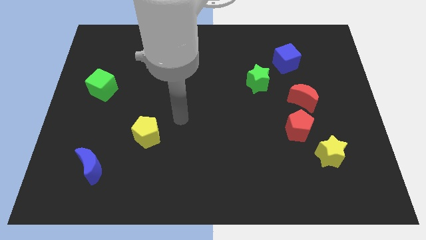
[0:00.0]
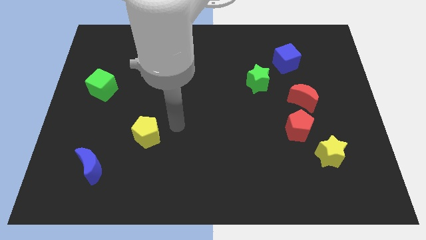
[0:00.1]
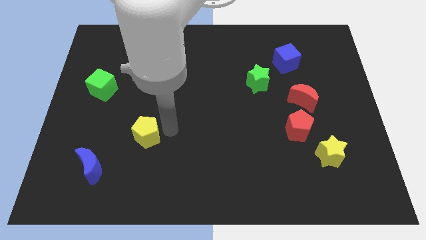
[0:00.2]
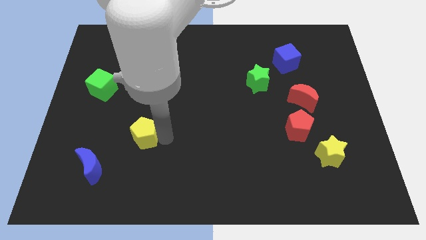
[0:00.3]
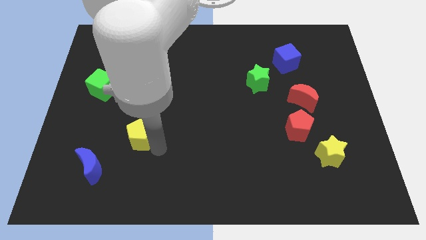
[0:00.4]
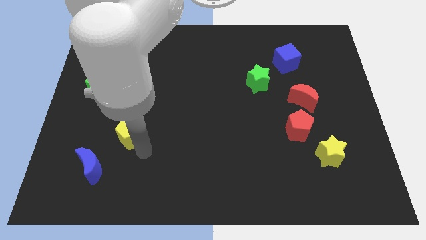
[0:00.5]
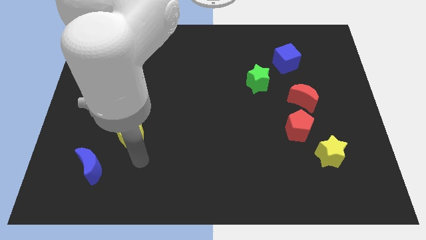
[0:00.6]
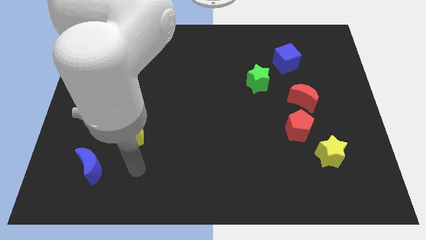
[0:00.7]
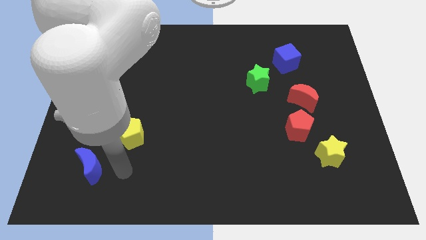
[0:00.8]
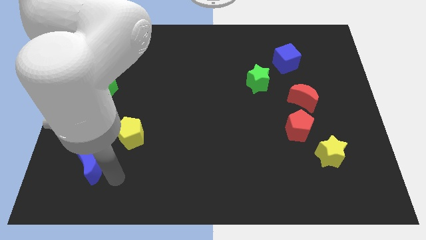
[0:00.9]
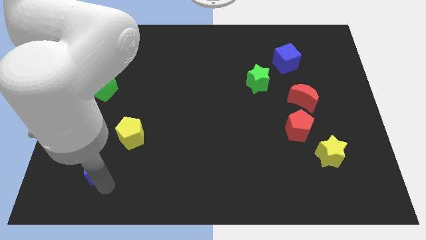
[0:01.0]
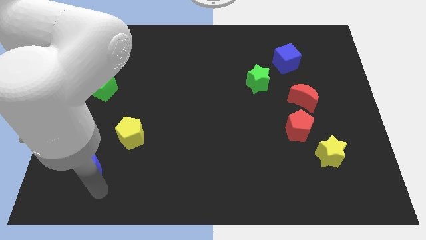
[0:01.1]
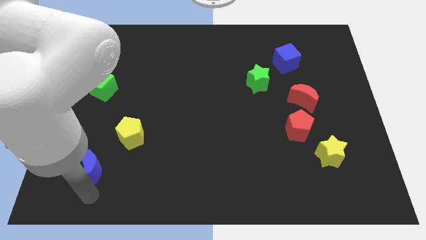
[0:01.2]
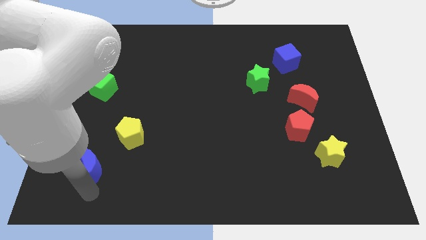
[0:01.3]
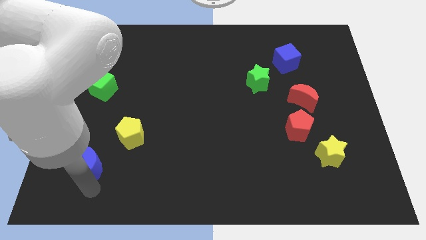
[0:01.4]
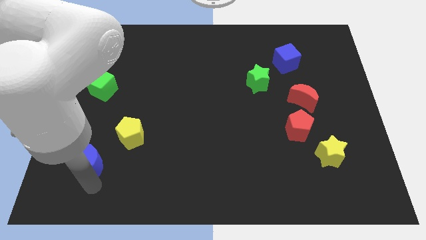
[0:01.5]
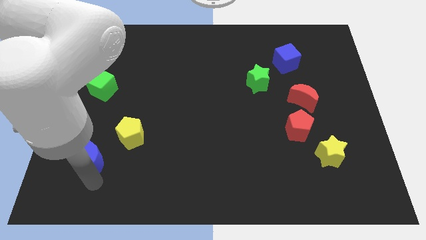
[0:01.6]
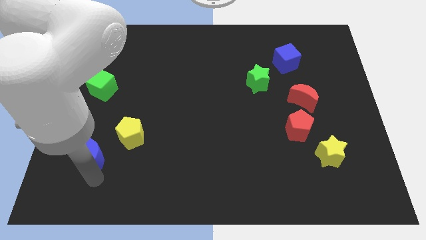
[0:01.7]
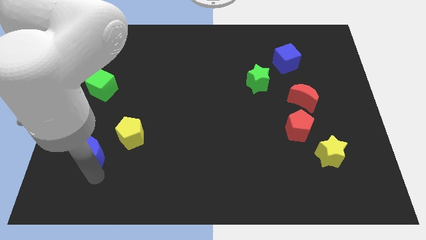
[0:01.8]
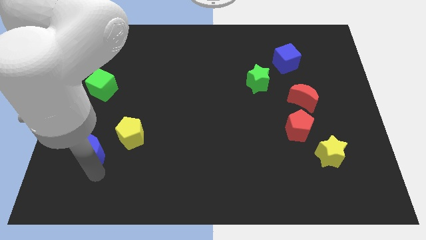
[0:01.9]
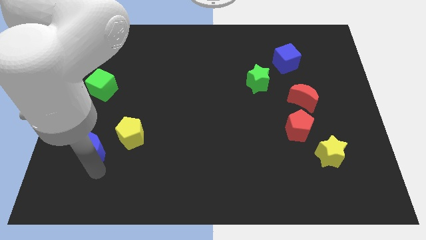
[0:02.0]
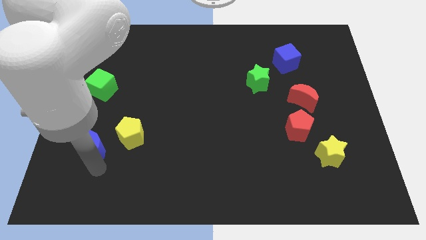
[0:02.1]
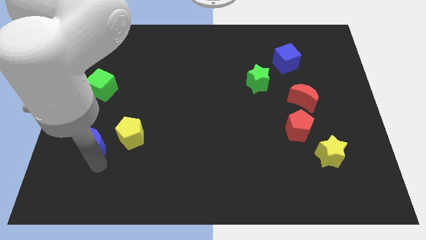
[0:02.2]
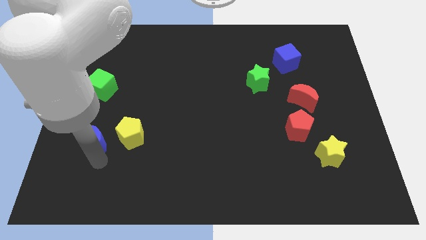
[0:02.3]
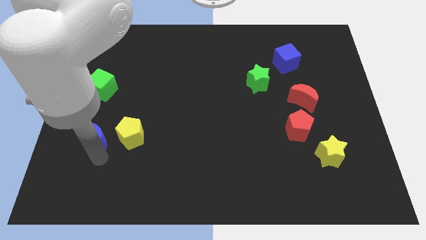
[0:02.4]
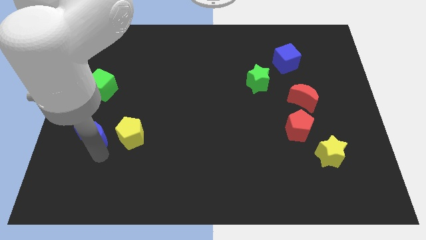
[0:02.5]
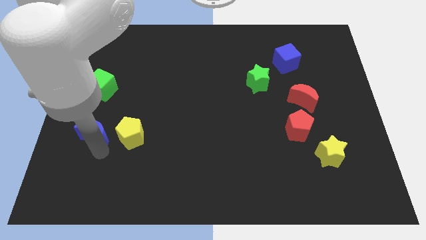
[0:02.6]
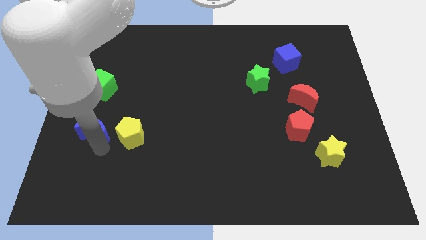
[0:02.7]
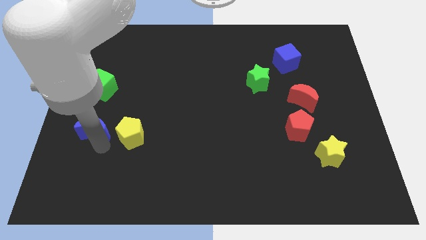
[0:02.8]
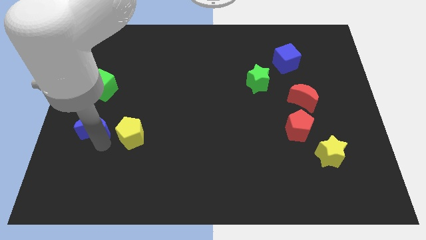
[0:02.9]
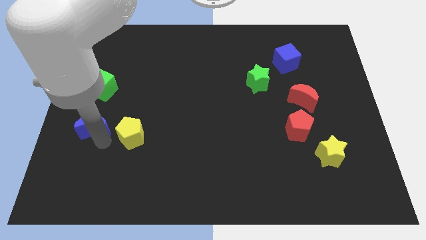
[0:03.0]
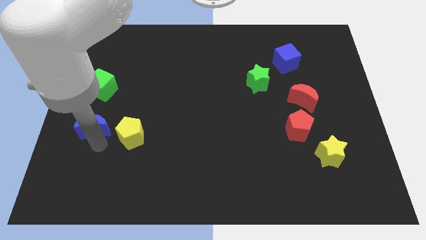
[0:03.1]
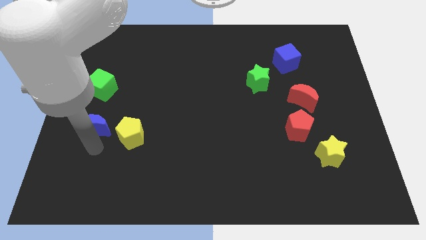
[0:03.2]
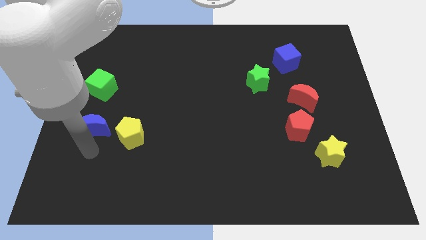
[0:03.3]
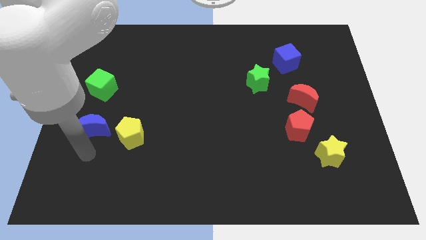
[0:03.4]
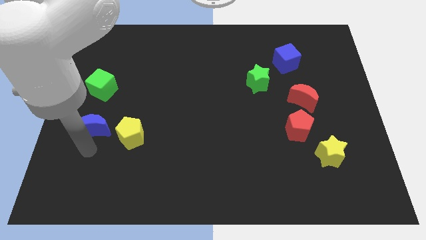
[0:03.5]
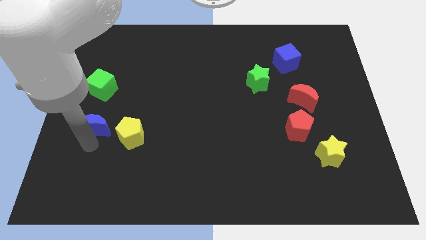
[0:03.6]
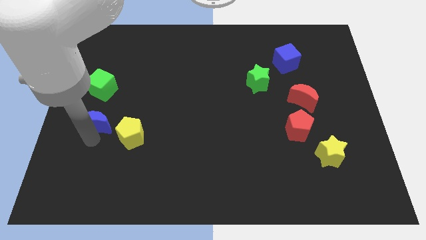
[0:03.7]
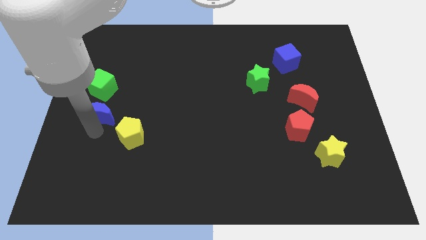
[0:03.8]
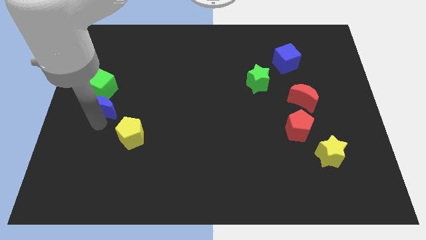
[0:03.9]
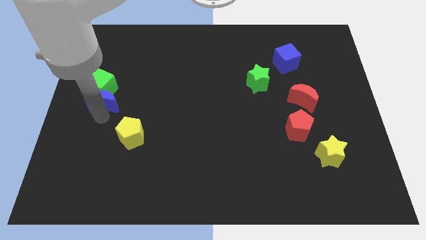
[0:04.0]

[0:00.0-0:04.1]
move the blue moon to the green cube

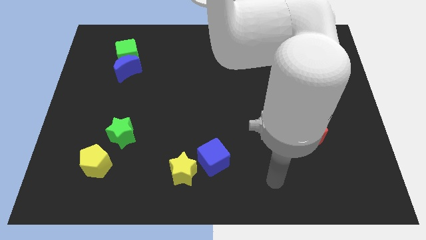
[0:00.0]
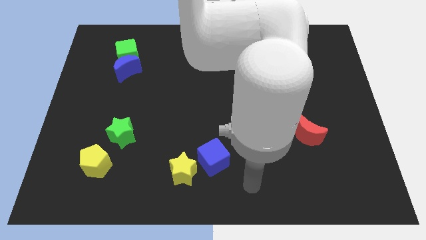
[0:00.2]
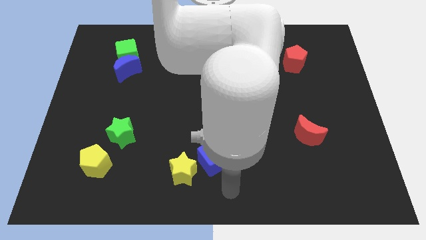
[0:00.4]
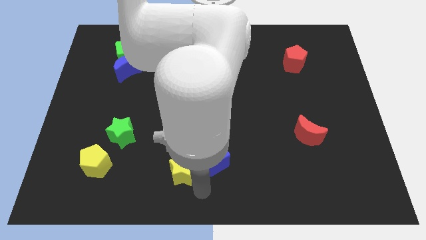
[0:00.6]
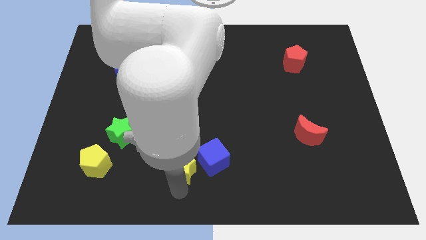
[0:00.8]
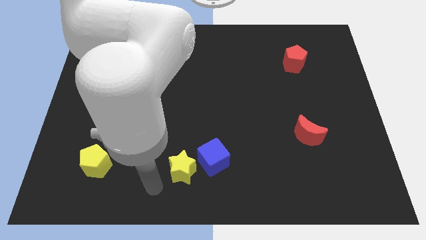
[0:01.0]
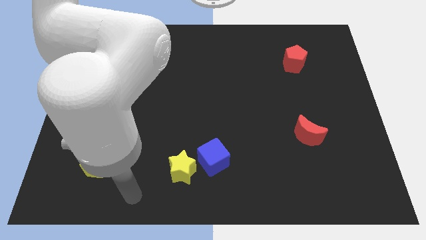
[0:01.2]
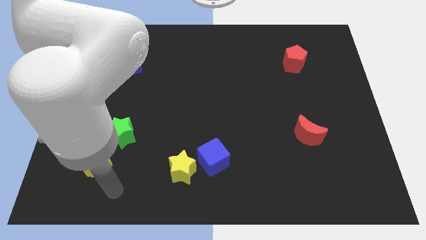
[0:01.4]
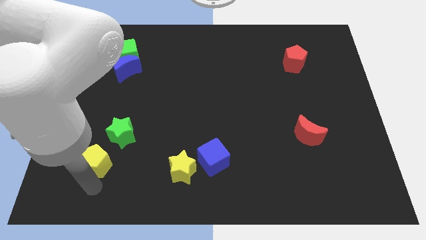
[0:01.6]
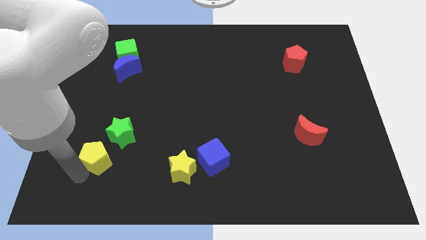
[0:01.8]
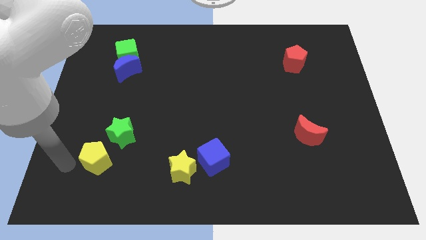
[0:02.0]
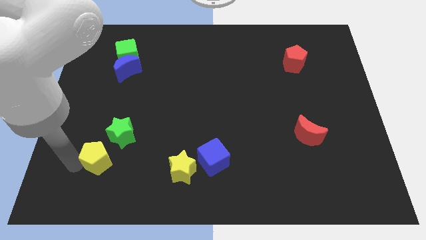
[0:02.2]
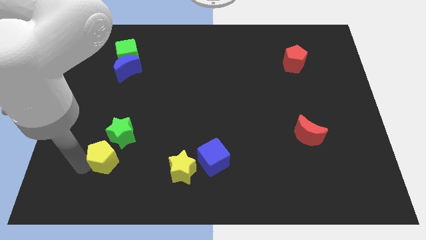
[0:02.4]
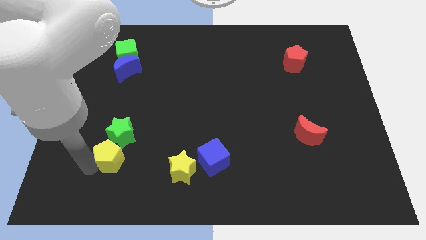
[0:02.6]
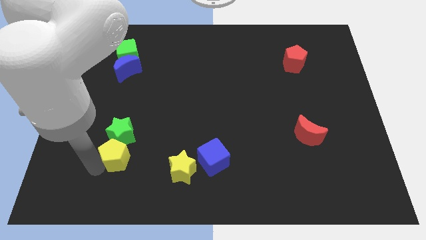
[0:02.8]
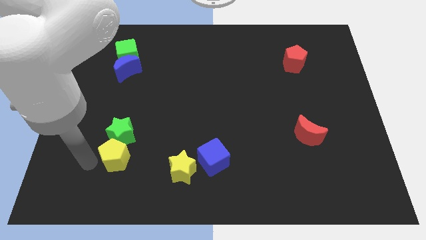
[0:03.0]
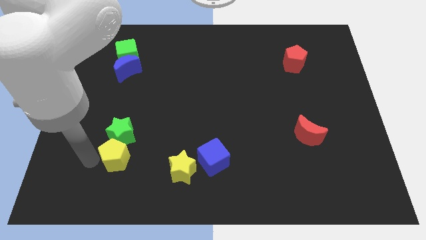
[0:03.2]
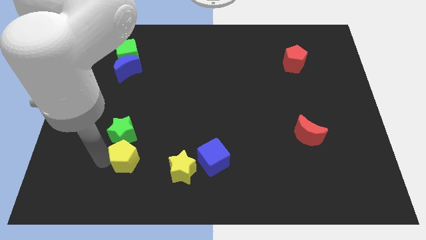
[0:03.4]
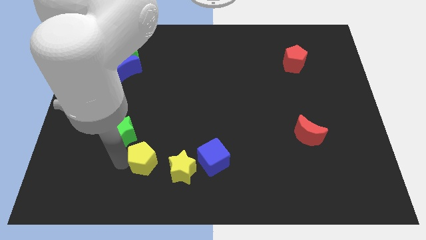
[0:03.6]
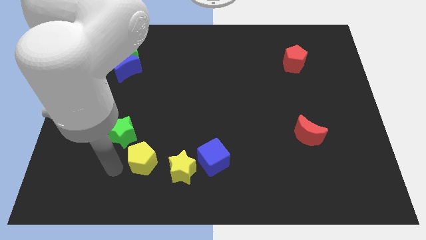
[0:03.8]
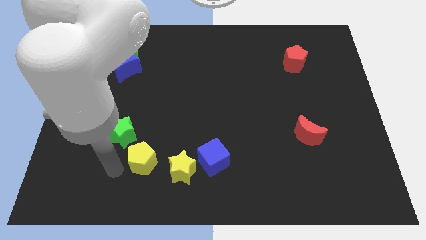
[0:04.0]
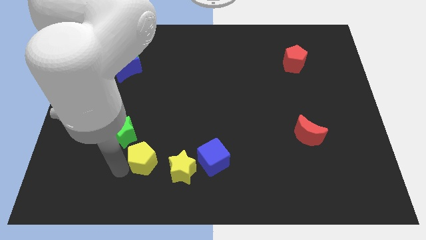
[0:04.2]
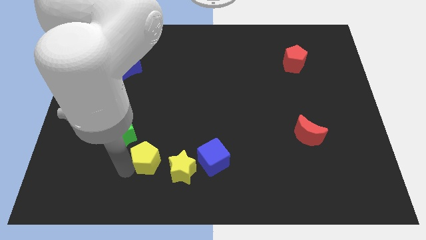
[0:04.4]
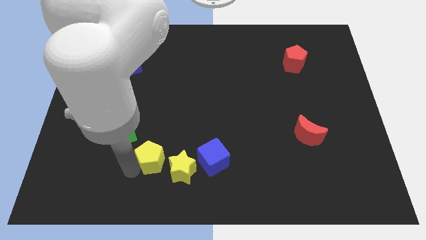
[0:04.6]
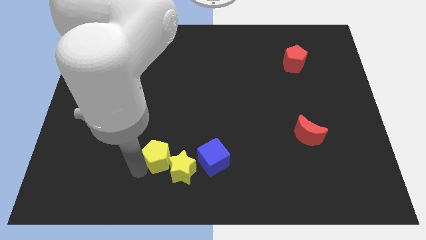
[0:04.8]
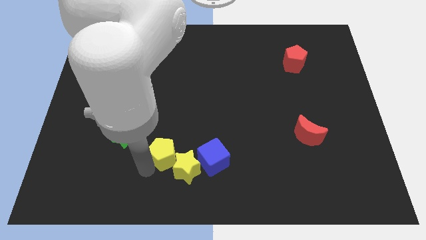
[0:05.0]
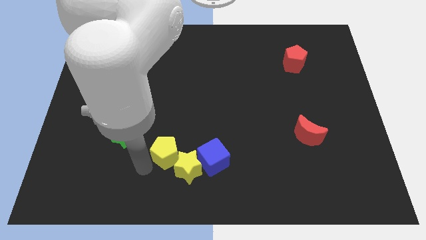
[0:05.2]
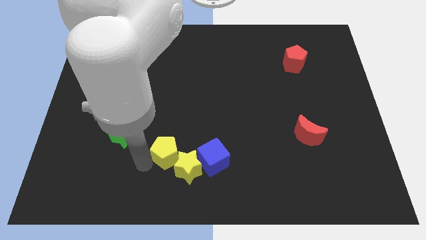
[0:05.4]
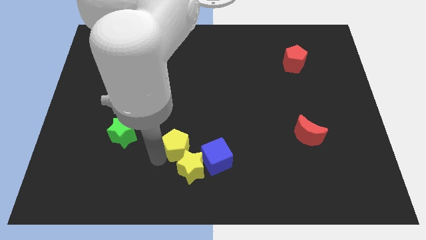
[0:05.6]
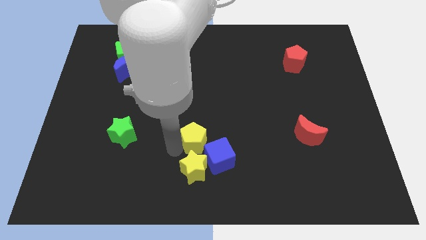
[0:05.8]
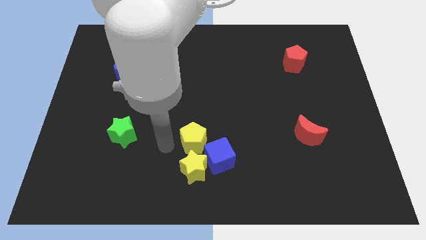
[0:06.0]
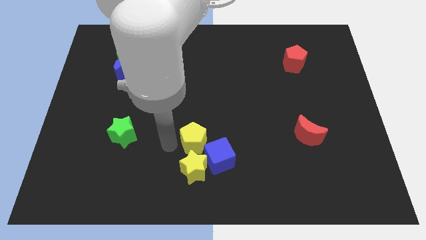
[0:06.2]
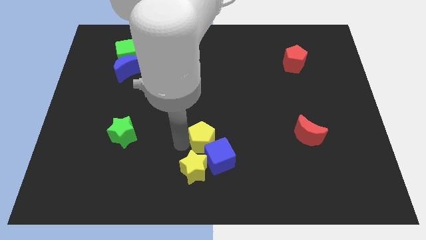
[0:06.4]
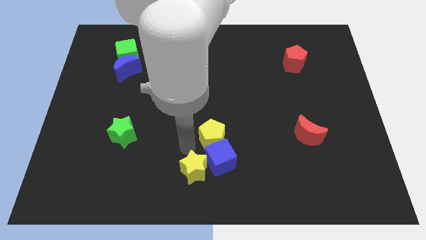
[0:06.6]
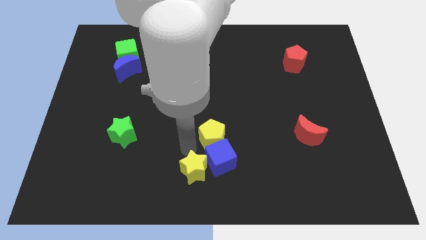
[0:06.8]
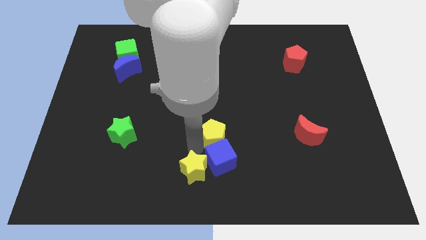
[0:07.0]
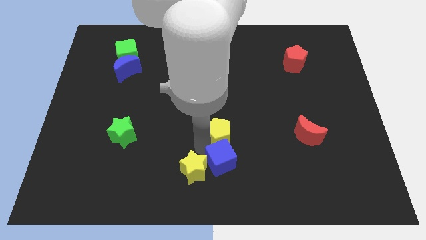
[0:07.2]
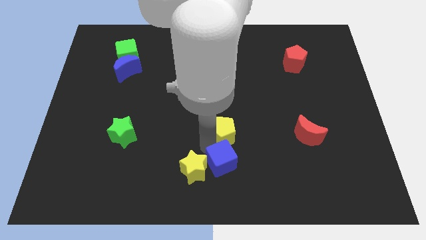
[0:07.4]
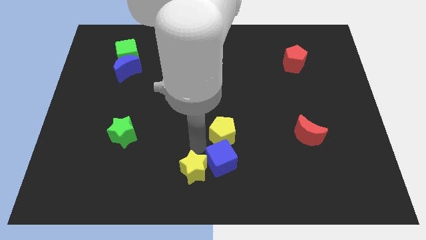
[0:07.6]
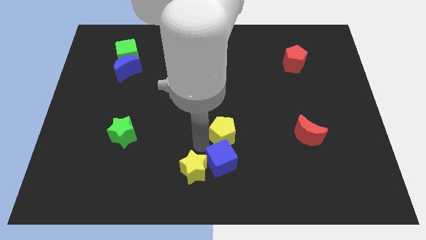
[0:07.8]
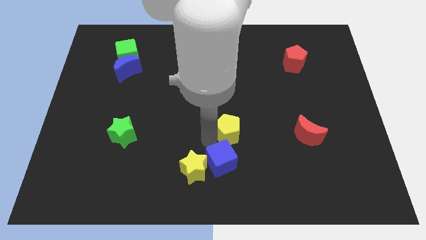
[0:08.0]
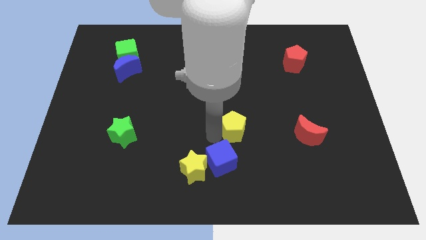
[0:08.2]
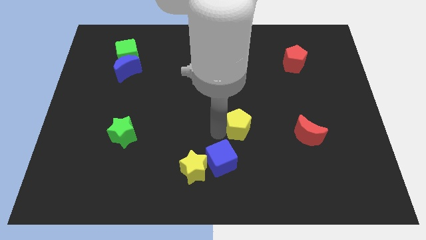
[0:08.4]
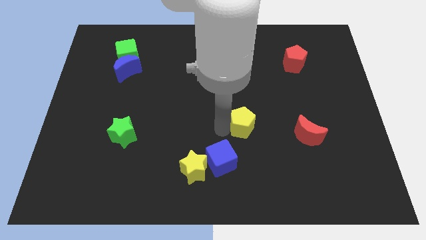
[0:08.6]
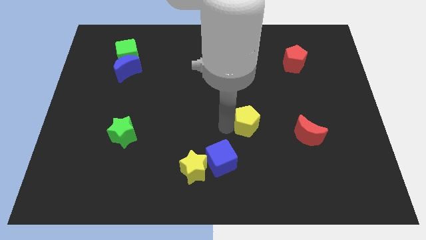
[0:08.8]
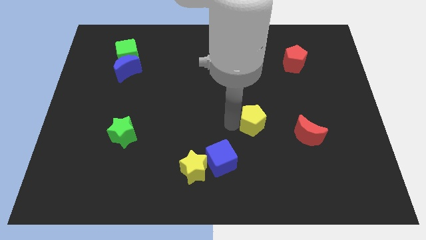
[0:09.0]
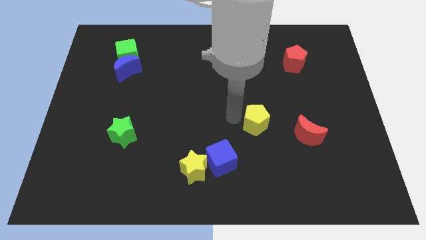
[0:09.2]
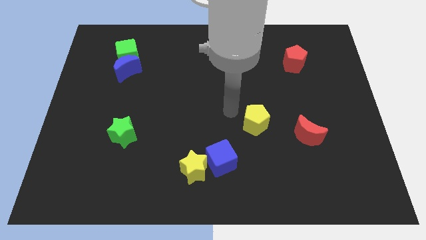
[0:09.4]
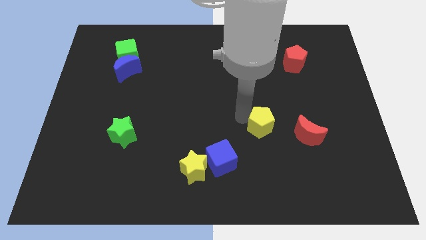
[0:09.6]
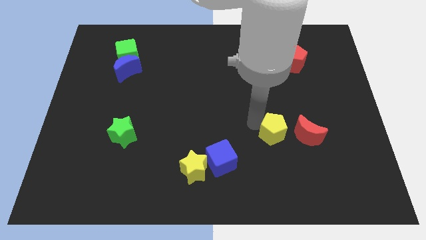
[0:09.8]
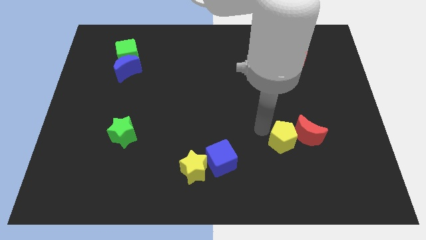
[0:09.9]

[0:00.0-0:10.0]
move the yellow pentagon next to the red moon
